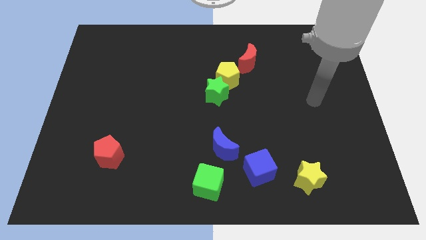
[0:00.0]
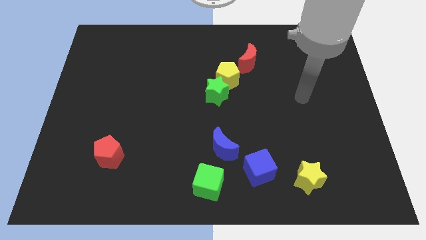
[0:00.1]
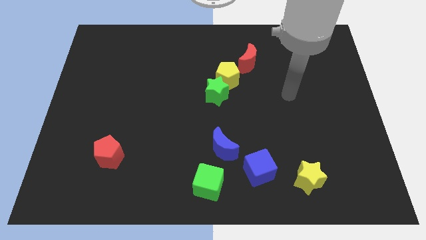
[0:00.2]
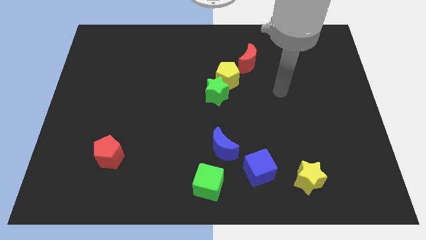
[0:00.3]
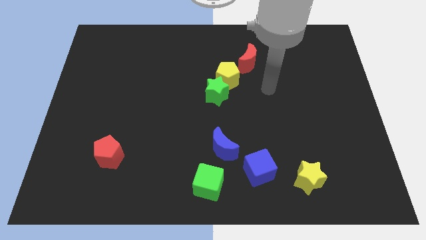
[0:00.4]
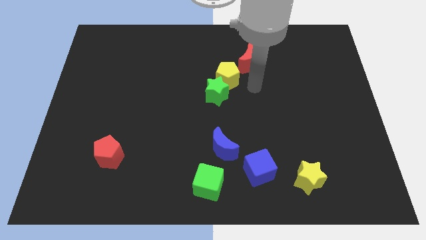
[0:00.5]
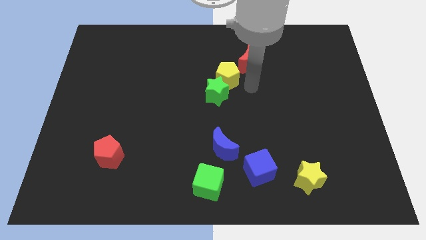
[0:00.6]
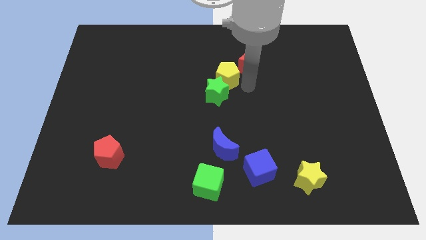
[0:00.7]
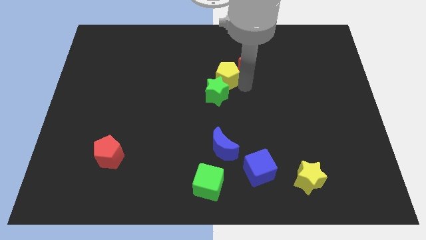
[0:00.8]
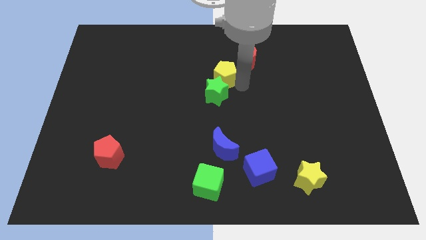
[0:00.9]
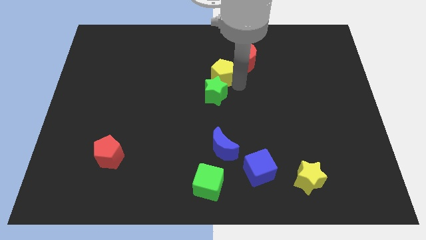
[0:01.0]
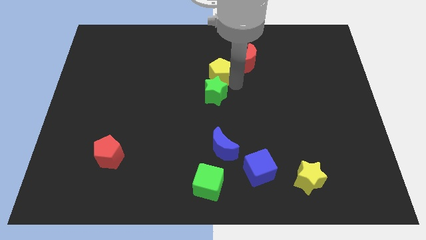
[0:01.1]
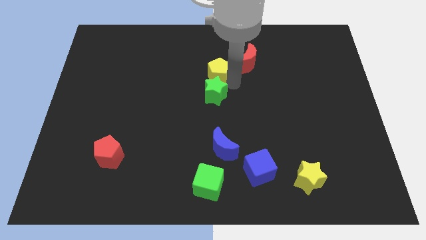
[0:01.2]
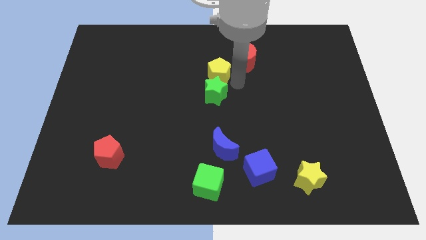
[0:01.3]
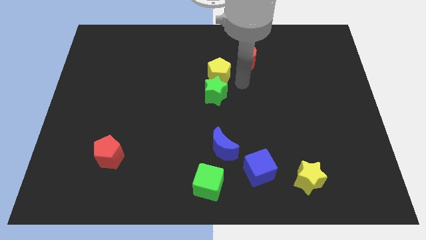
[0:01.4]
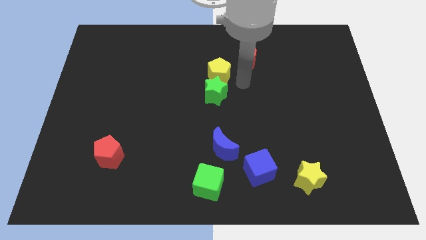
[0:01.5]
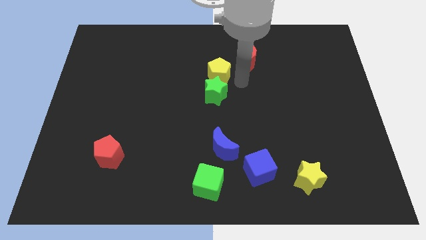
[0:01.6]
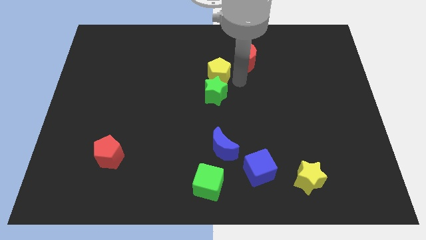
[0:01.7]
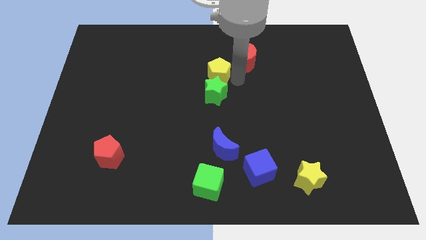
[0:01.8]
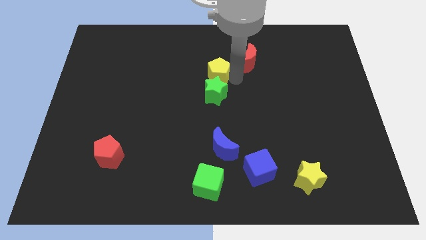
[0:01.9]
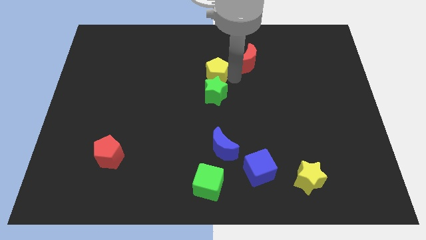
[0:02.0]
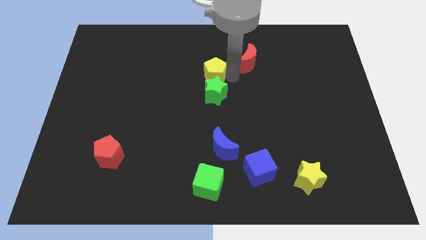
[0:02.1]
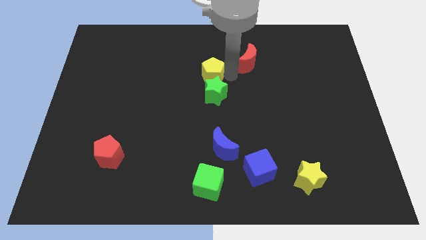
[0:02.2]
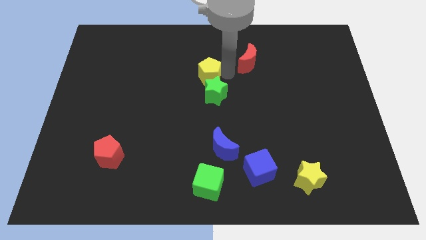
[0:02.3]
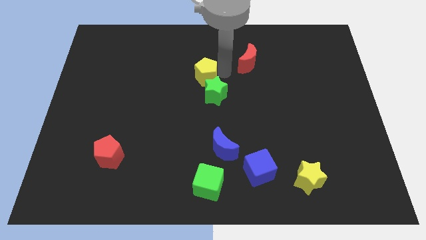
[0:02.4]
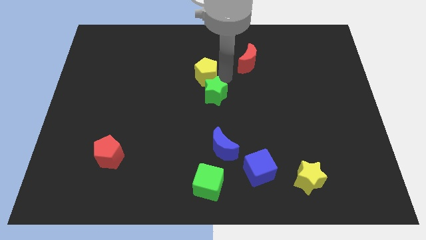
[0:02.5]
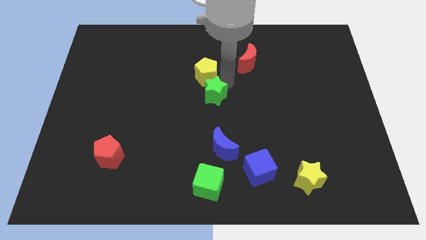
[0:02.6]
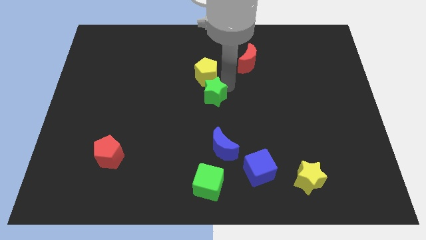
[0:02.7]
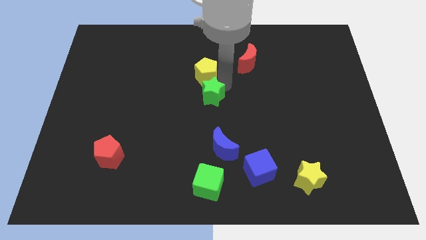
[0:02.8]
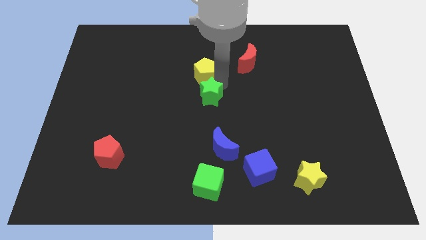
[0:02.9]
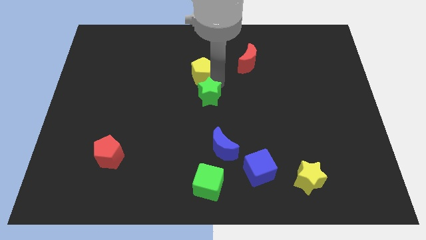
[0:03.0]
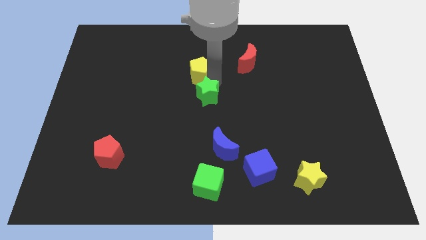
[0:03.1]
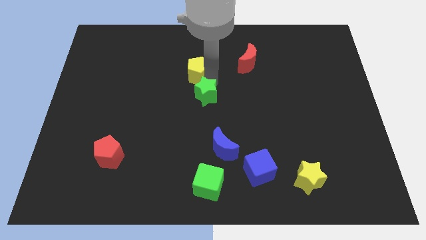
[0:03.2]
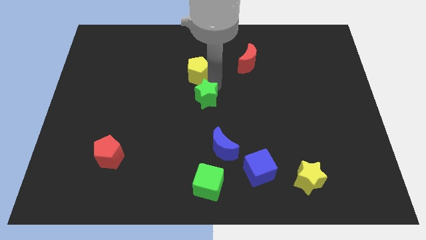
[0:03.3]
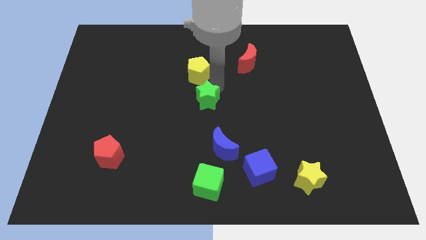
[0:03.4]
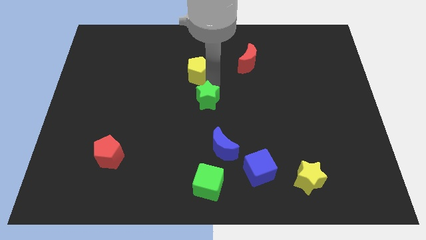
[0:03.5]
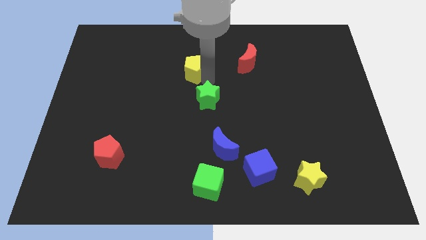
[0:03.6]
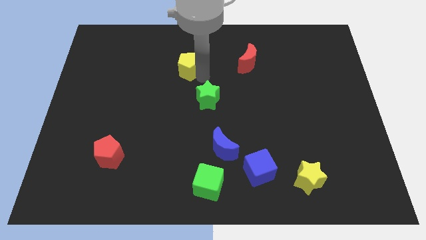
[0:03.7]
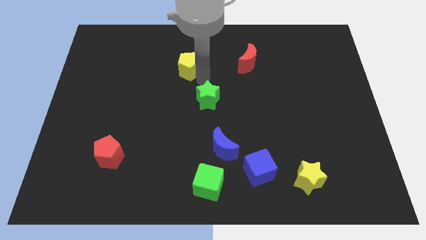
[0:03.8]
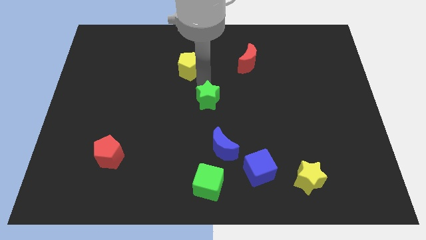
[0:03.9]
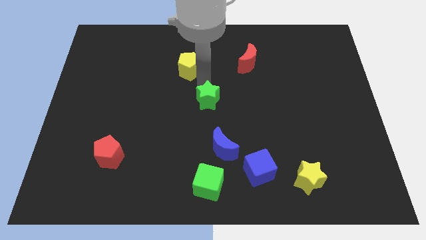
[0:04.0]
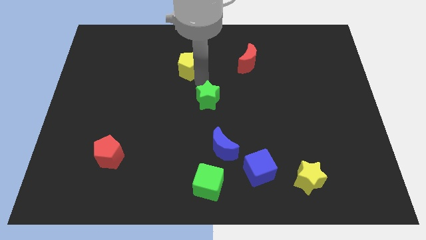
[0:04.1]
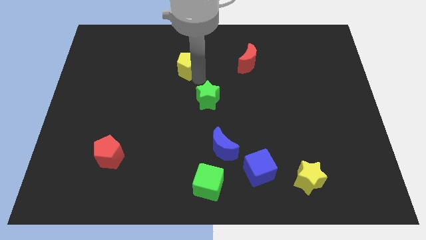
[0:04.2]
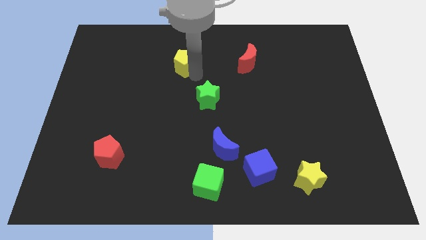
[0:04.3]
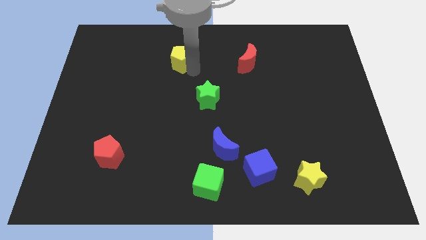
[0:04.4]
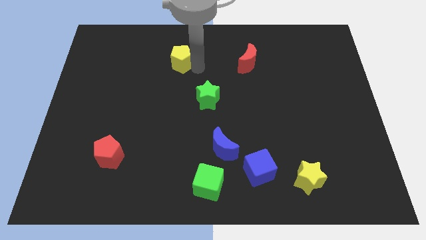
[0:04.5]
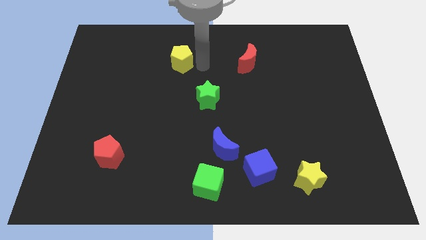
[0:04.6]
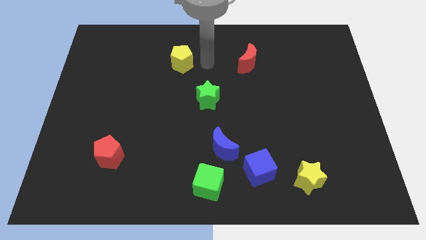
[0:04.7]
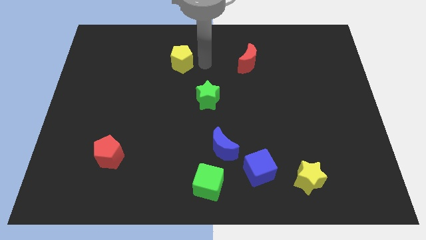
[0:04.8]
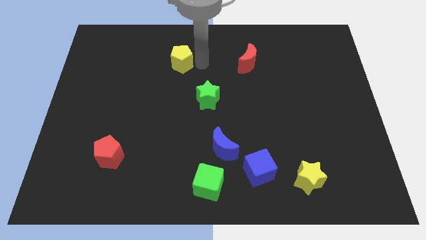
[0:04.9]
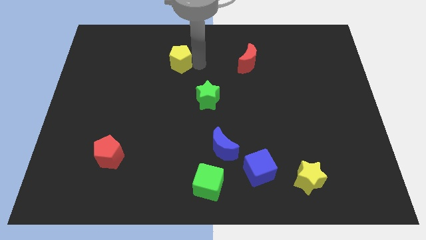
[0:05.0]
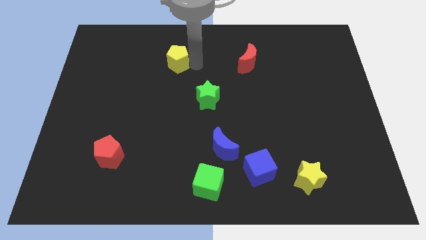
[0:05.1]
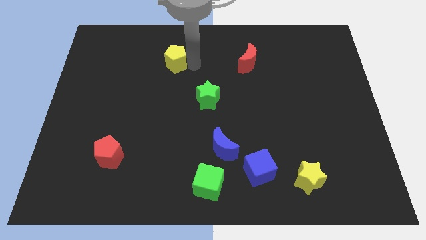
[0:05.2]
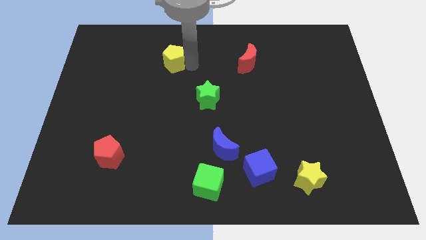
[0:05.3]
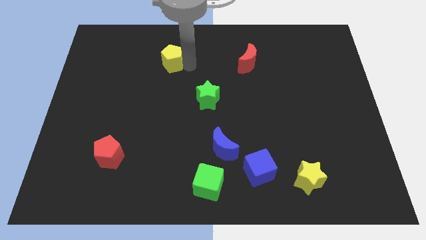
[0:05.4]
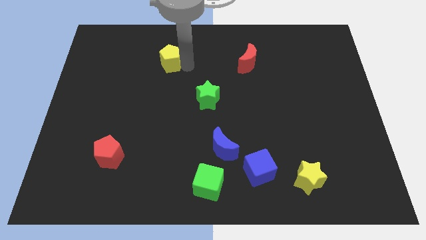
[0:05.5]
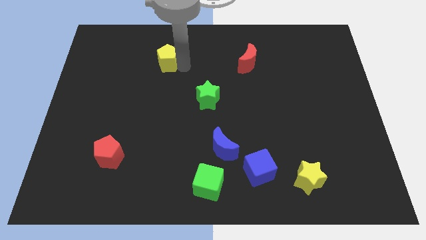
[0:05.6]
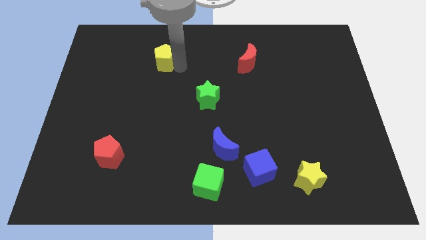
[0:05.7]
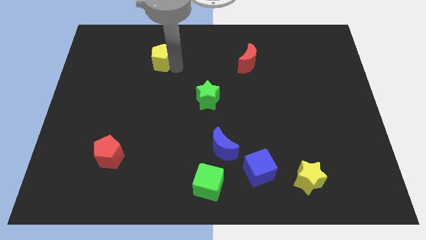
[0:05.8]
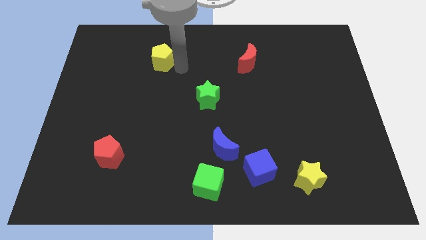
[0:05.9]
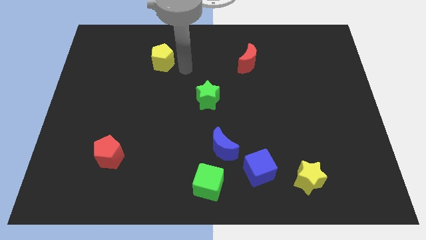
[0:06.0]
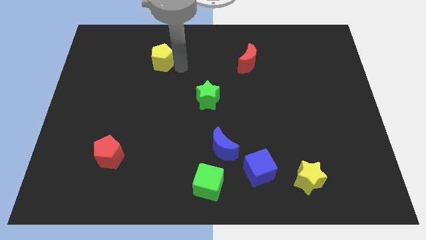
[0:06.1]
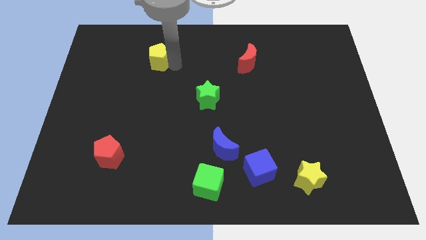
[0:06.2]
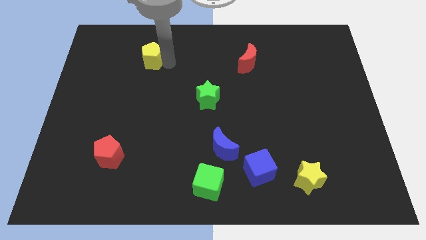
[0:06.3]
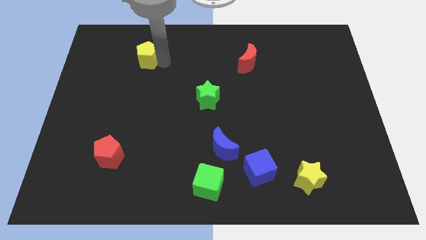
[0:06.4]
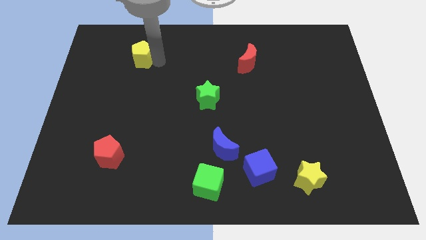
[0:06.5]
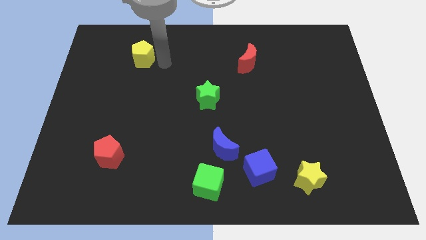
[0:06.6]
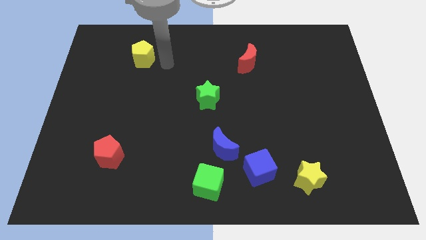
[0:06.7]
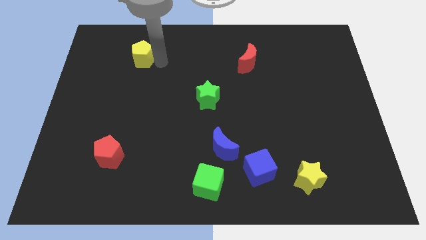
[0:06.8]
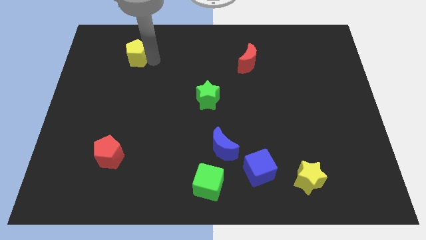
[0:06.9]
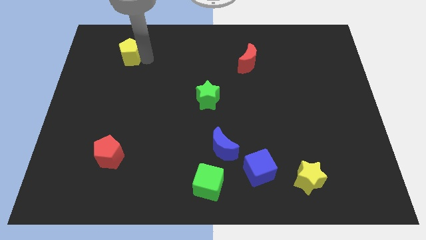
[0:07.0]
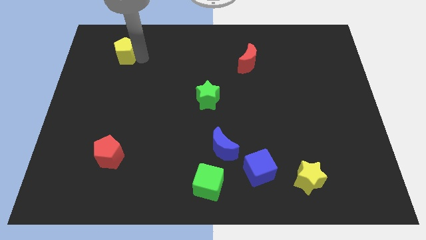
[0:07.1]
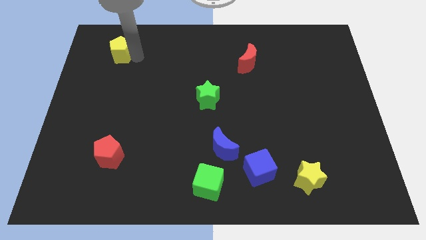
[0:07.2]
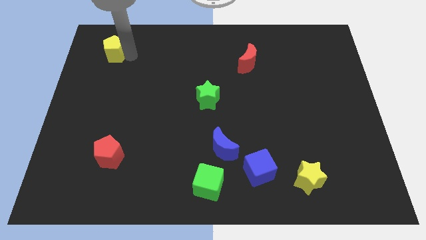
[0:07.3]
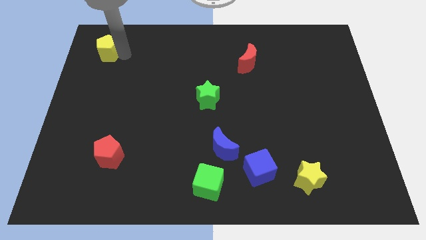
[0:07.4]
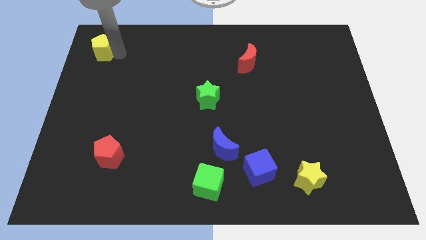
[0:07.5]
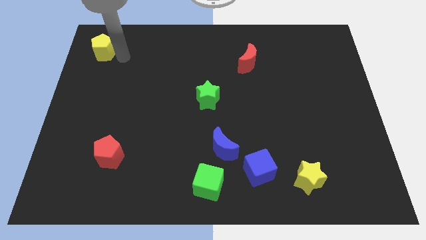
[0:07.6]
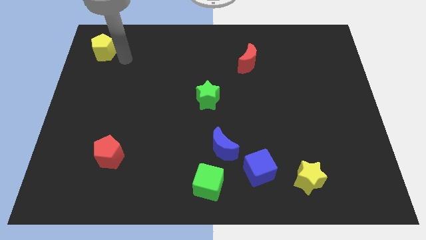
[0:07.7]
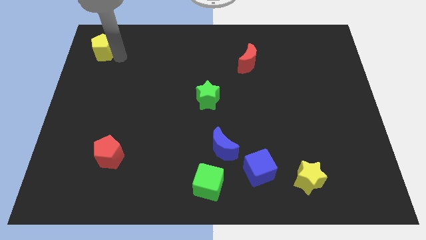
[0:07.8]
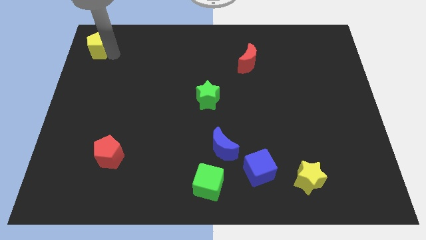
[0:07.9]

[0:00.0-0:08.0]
slide the yellow pentagon to the top left of the board
